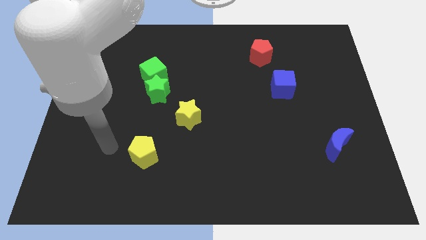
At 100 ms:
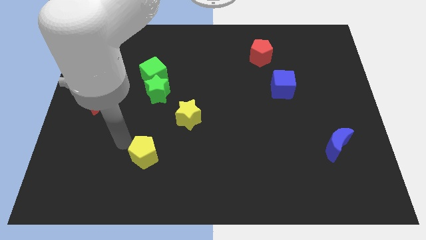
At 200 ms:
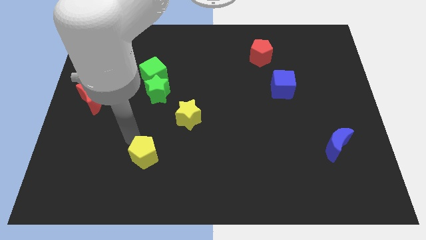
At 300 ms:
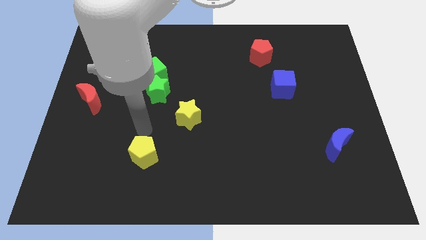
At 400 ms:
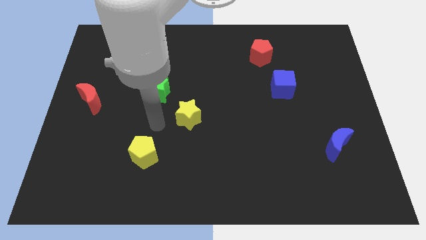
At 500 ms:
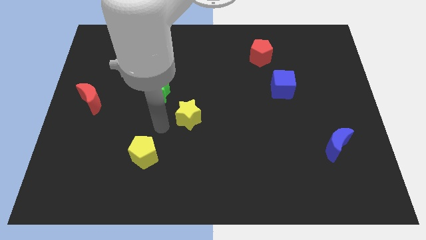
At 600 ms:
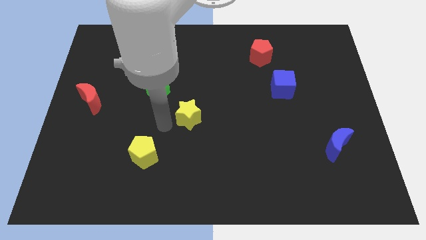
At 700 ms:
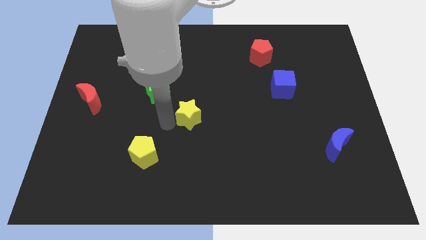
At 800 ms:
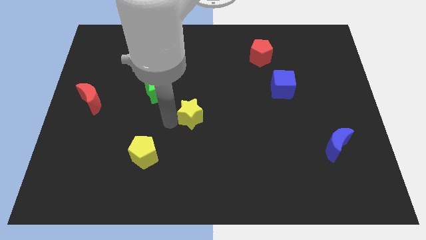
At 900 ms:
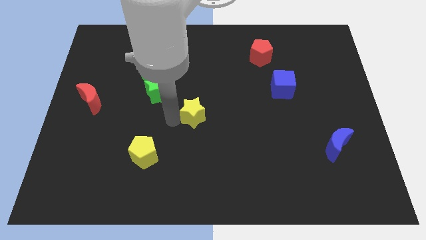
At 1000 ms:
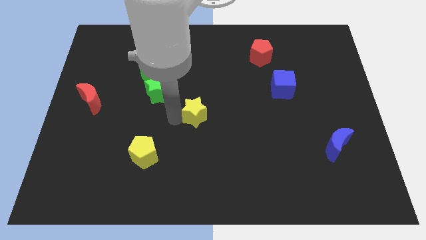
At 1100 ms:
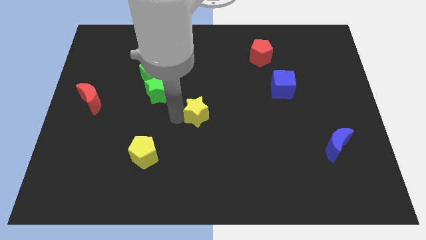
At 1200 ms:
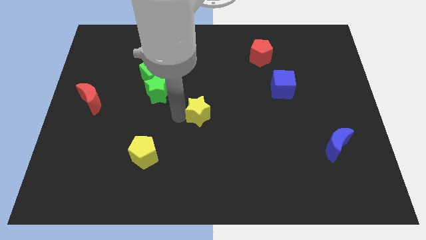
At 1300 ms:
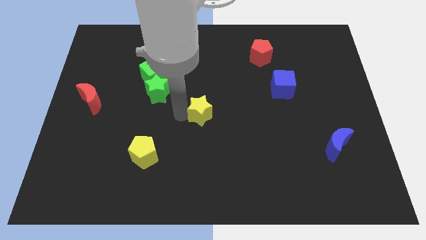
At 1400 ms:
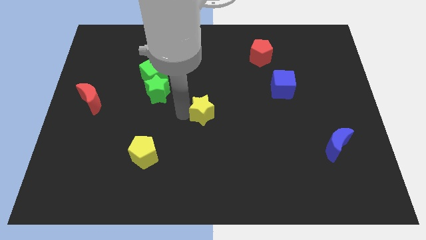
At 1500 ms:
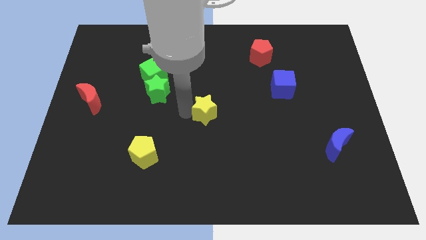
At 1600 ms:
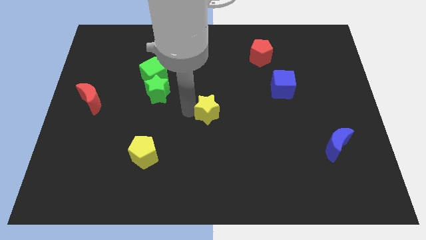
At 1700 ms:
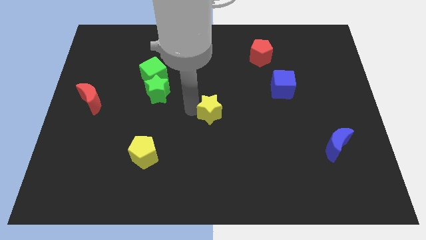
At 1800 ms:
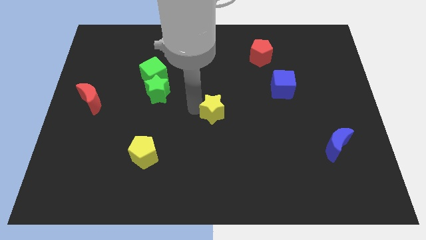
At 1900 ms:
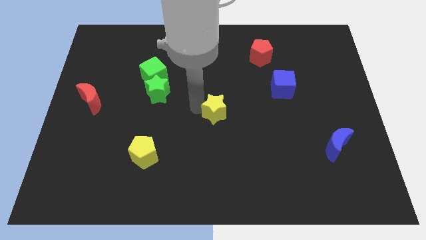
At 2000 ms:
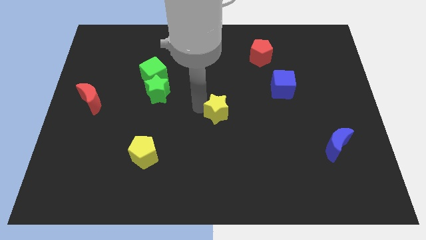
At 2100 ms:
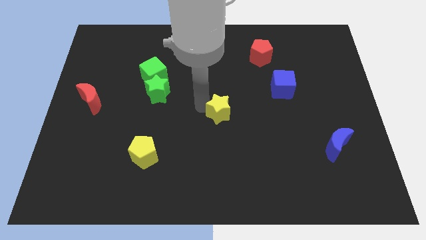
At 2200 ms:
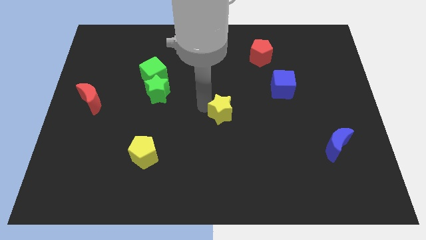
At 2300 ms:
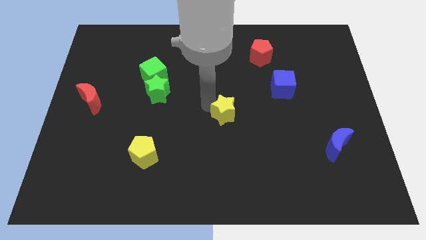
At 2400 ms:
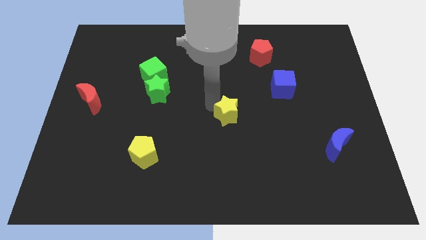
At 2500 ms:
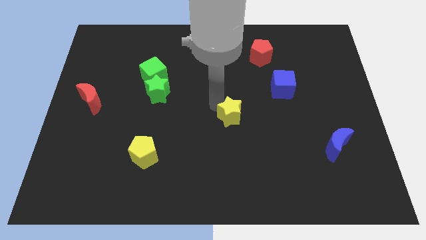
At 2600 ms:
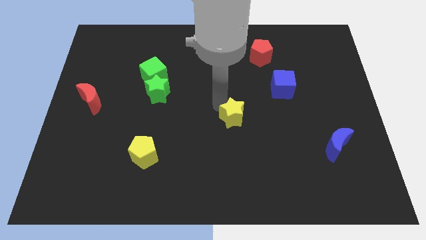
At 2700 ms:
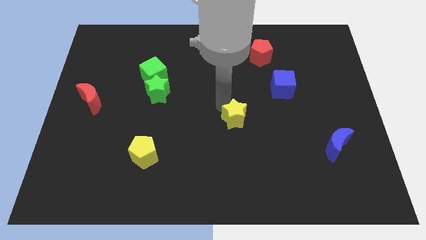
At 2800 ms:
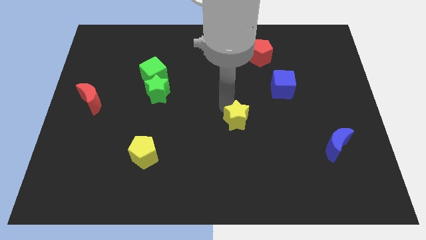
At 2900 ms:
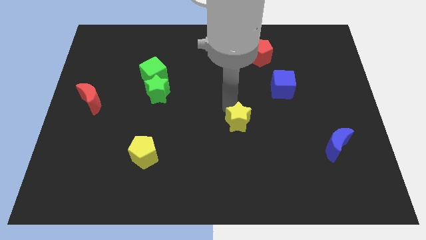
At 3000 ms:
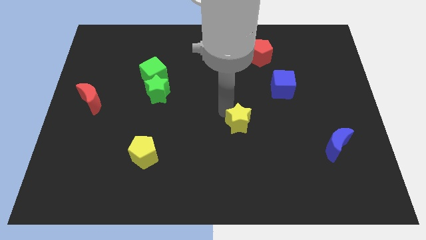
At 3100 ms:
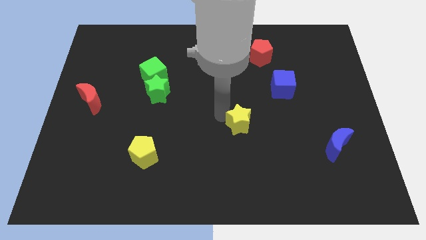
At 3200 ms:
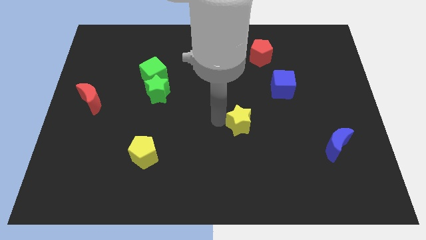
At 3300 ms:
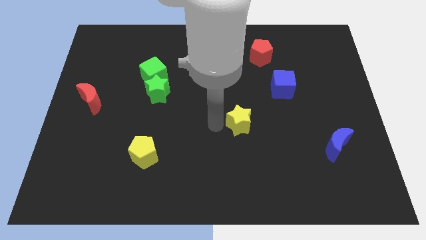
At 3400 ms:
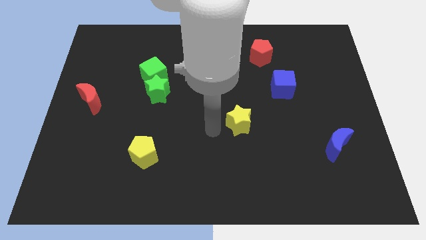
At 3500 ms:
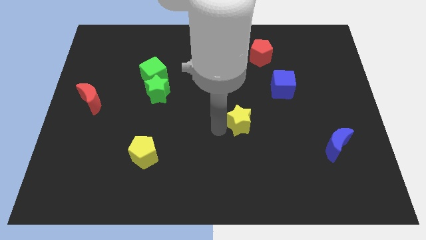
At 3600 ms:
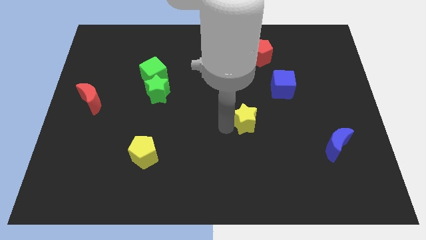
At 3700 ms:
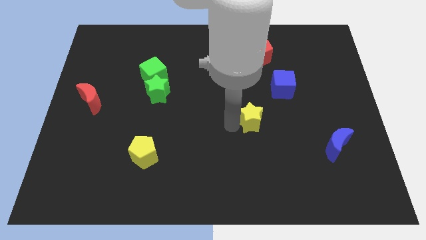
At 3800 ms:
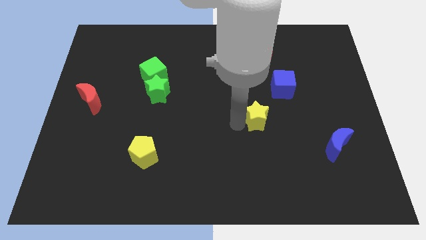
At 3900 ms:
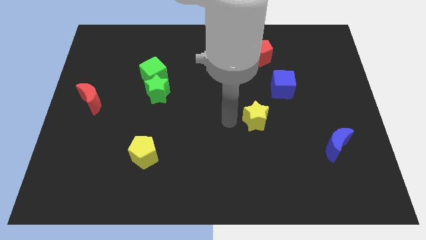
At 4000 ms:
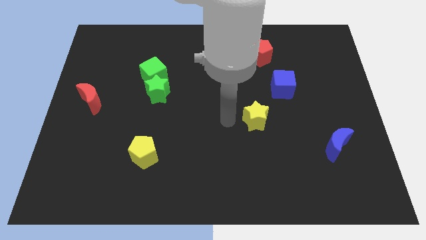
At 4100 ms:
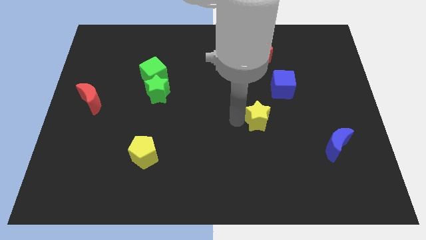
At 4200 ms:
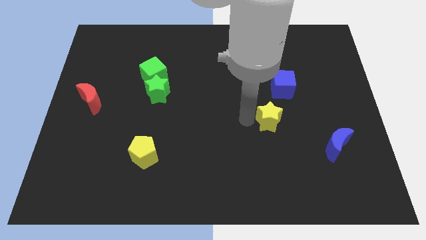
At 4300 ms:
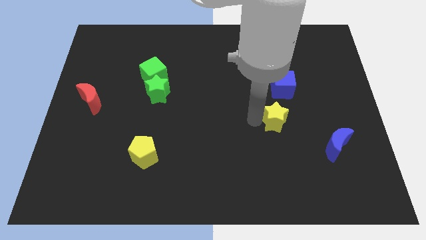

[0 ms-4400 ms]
move the yellow star to the right

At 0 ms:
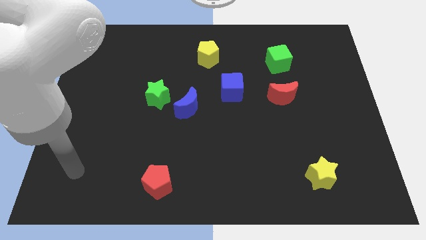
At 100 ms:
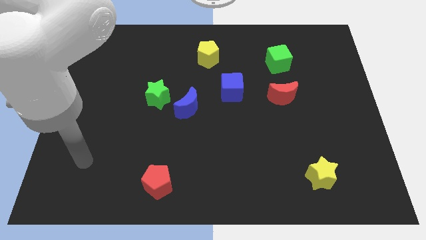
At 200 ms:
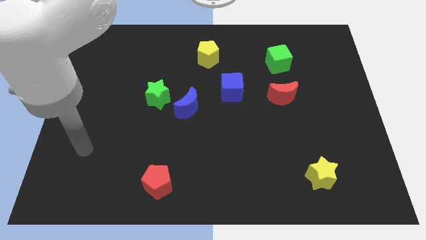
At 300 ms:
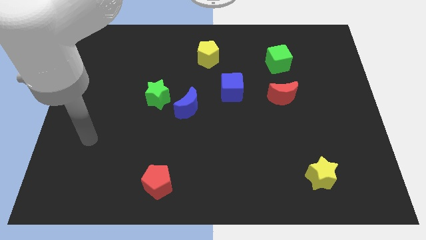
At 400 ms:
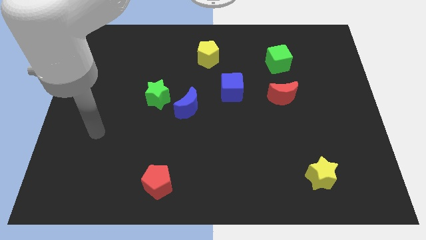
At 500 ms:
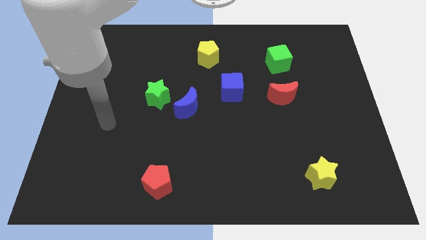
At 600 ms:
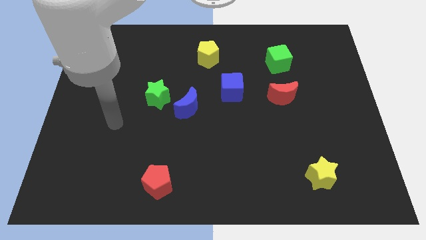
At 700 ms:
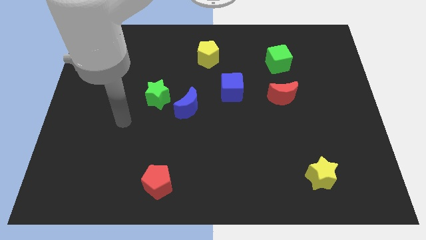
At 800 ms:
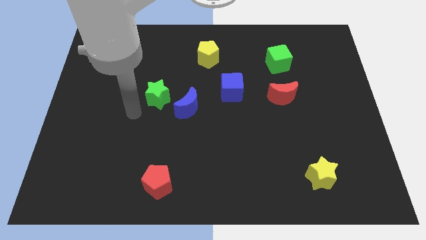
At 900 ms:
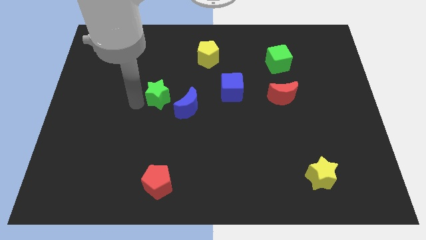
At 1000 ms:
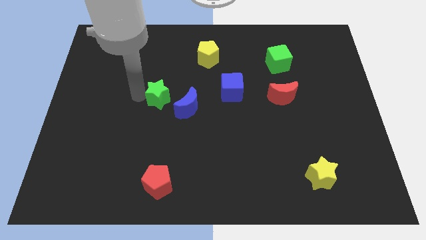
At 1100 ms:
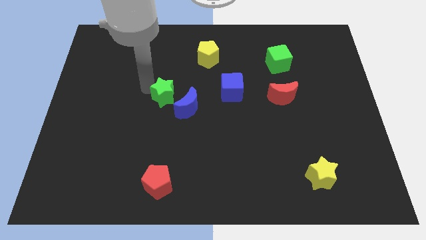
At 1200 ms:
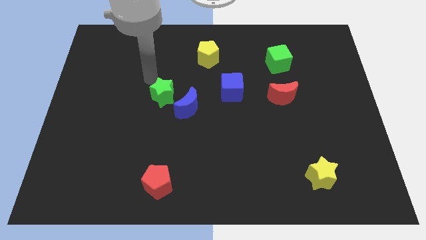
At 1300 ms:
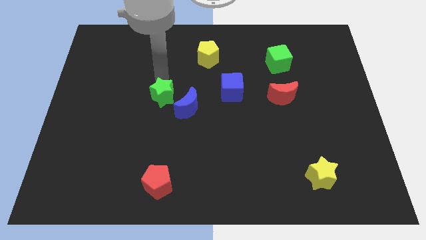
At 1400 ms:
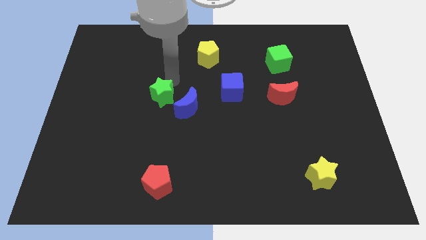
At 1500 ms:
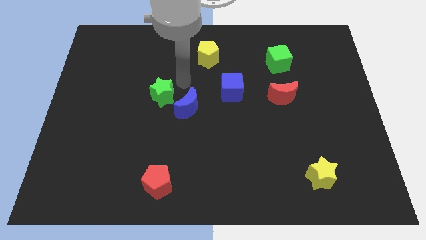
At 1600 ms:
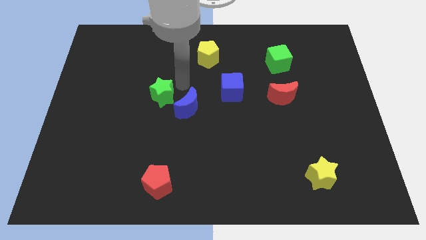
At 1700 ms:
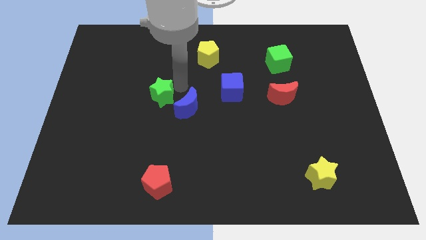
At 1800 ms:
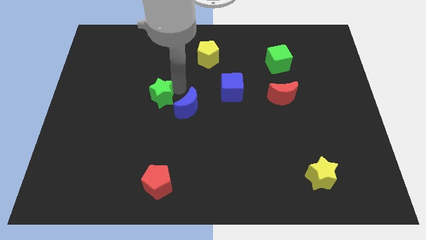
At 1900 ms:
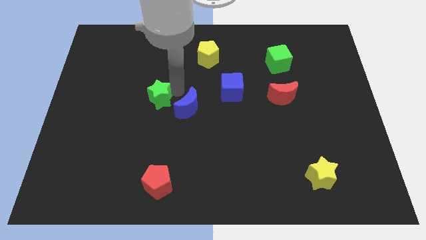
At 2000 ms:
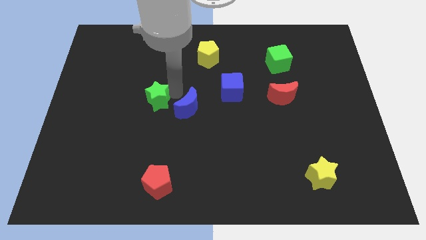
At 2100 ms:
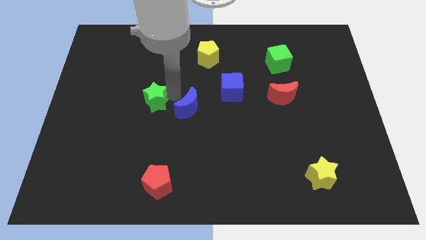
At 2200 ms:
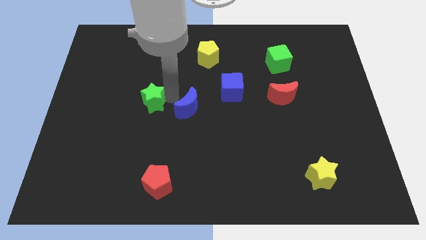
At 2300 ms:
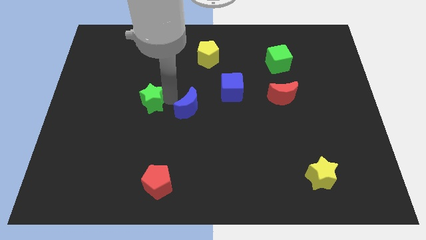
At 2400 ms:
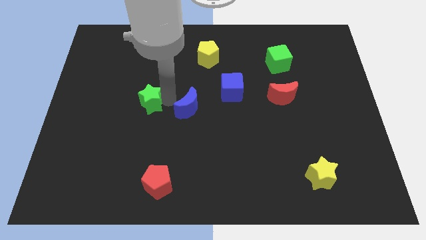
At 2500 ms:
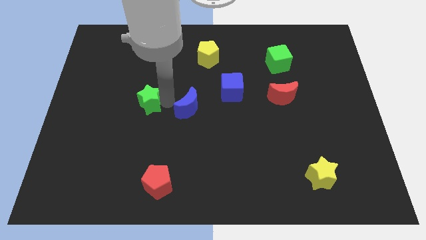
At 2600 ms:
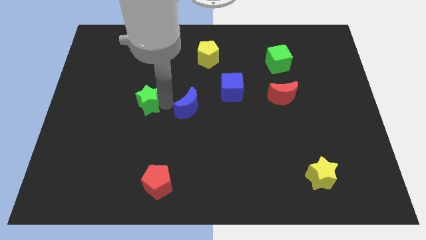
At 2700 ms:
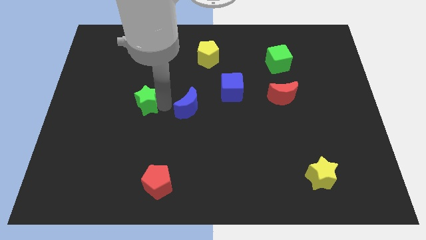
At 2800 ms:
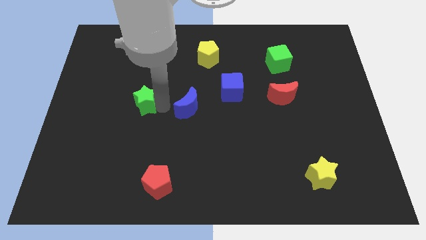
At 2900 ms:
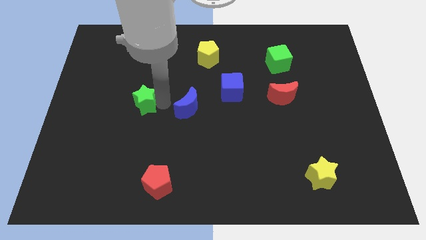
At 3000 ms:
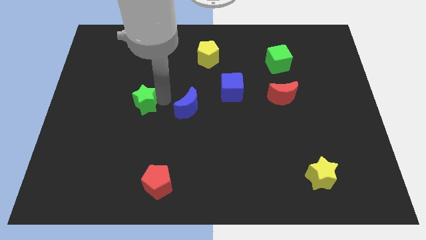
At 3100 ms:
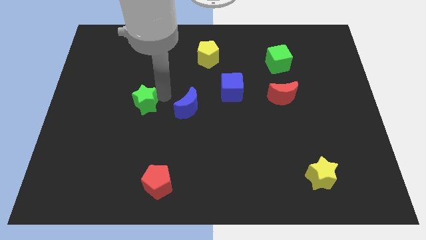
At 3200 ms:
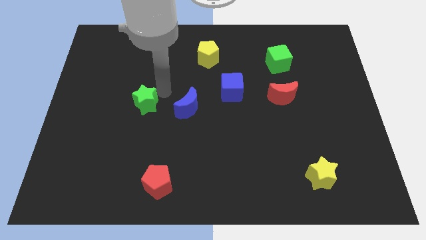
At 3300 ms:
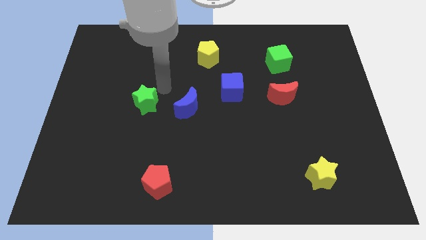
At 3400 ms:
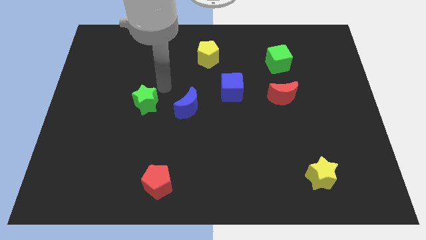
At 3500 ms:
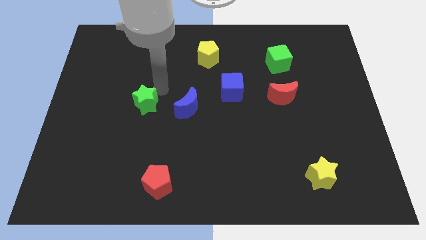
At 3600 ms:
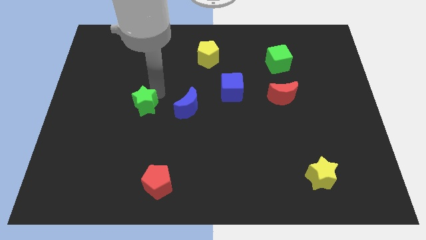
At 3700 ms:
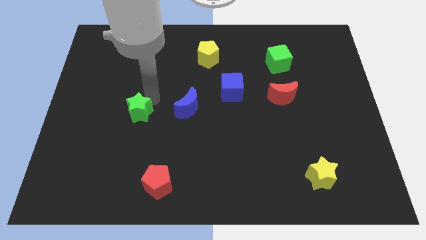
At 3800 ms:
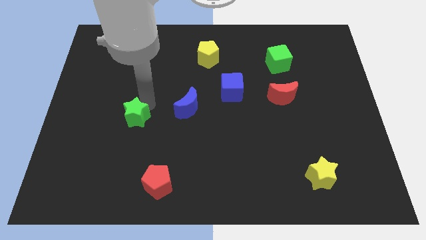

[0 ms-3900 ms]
move the green star diagonally down and left a bit
